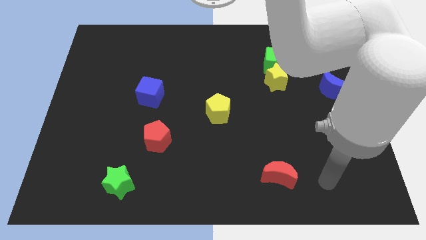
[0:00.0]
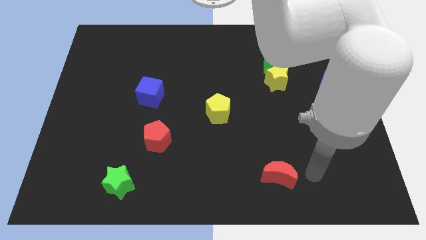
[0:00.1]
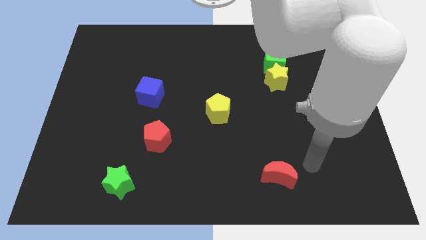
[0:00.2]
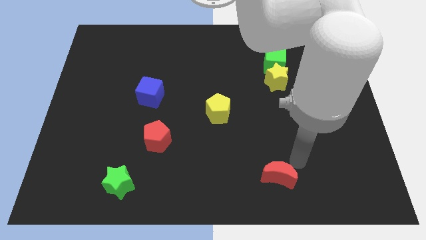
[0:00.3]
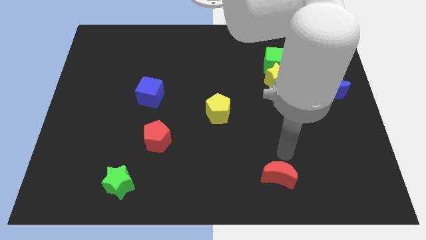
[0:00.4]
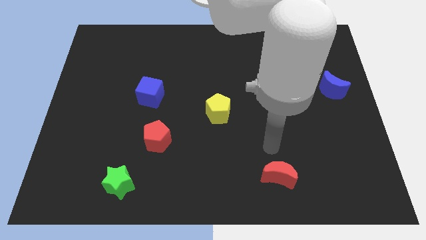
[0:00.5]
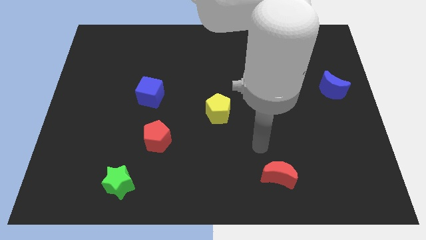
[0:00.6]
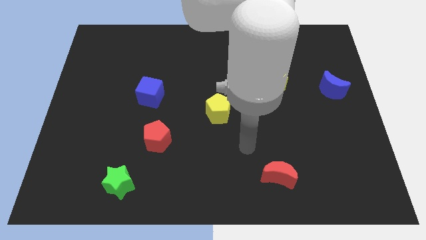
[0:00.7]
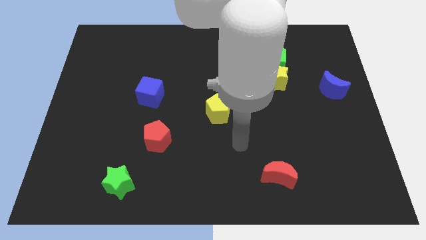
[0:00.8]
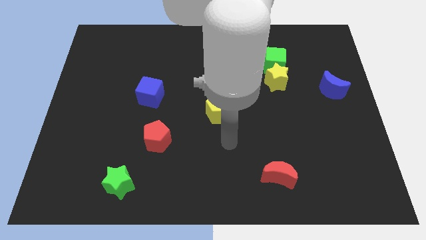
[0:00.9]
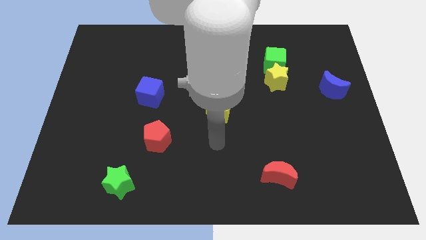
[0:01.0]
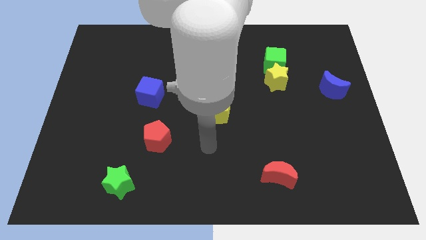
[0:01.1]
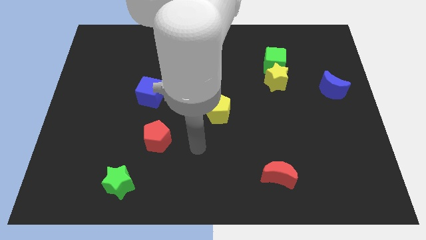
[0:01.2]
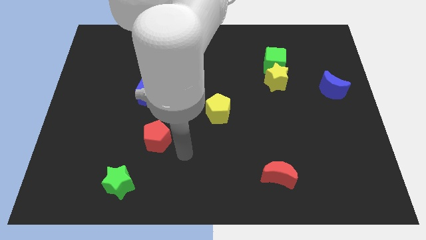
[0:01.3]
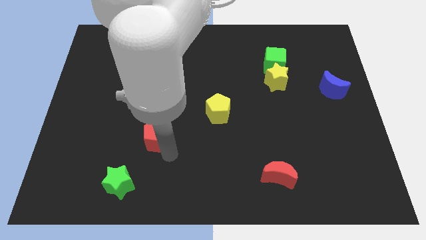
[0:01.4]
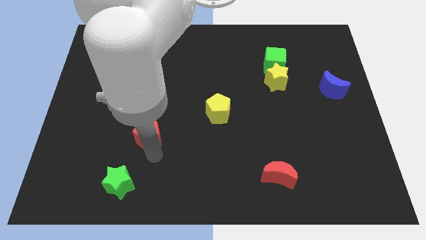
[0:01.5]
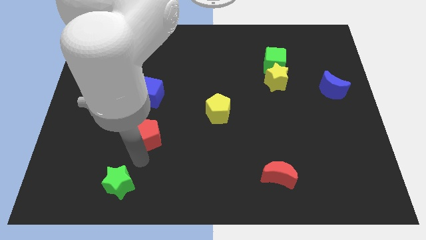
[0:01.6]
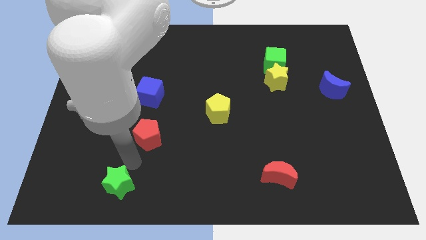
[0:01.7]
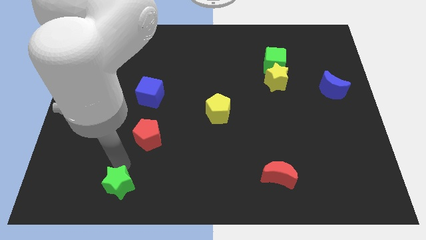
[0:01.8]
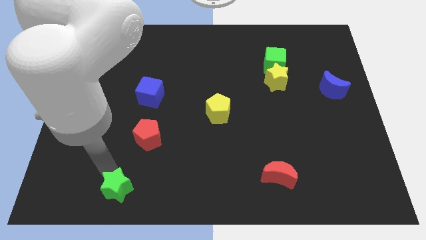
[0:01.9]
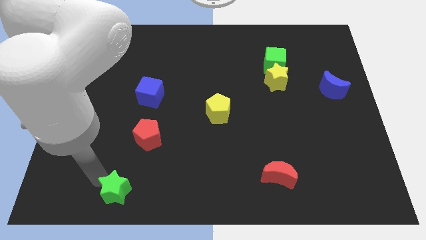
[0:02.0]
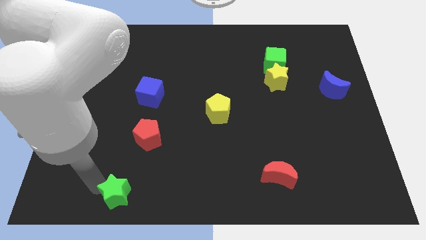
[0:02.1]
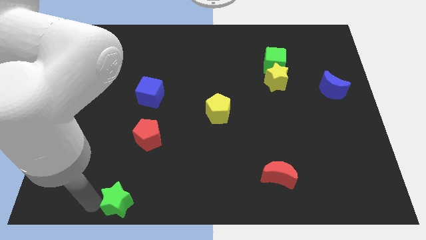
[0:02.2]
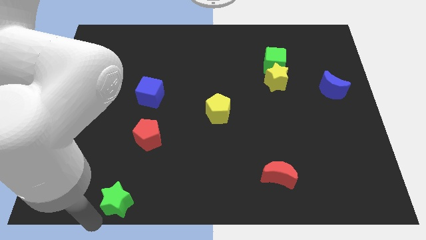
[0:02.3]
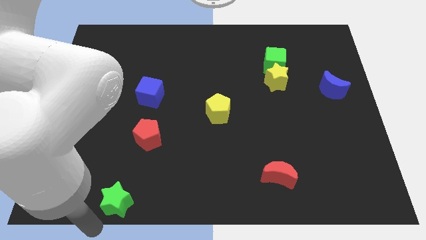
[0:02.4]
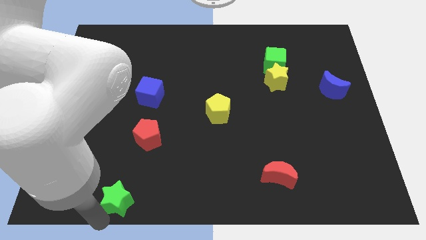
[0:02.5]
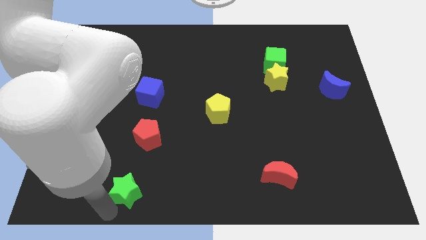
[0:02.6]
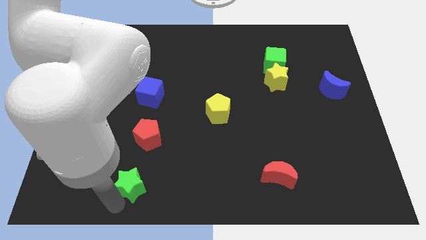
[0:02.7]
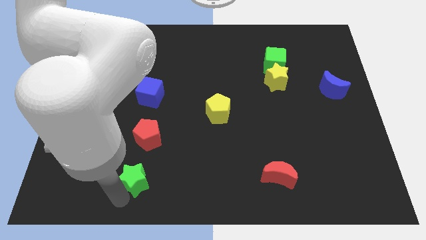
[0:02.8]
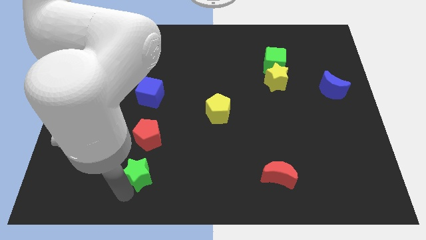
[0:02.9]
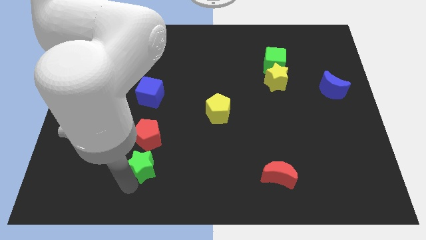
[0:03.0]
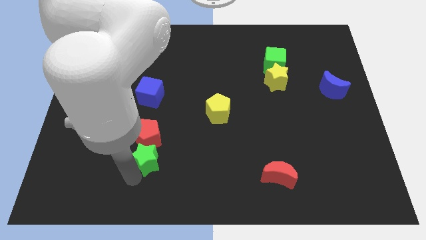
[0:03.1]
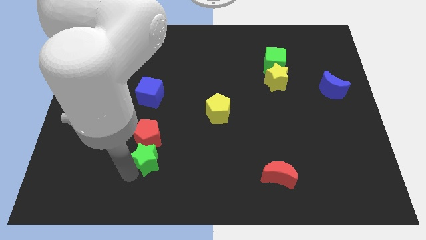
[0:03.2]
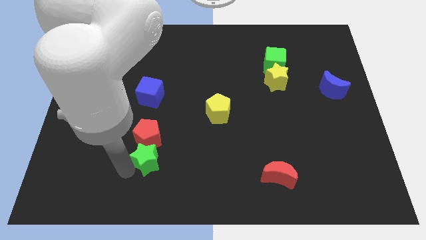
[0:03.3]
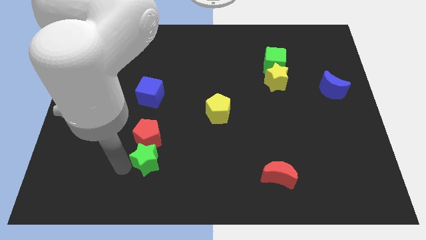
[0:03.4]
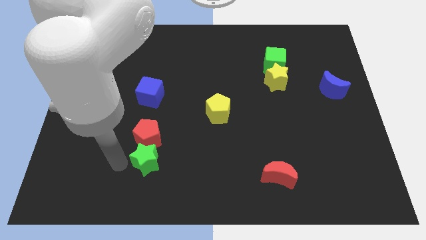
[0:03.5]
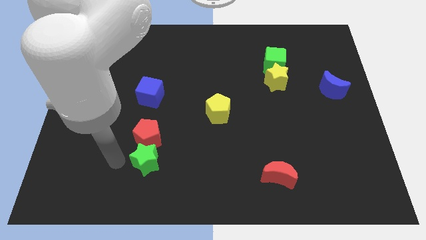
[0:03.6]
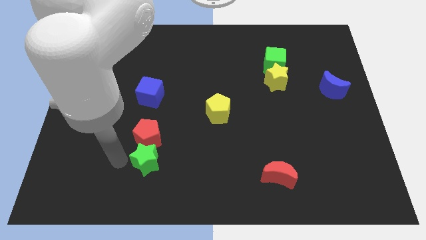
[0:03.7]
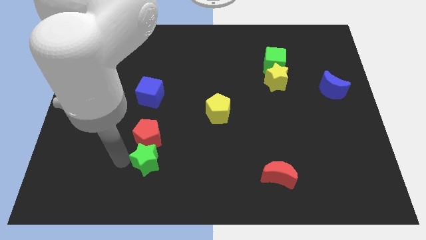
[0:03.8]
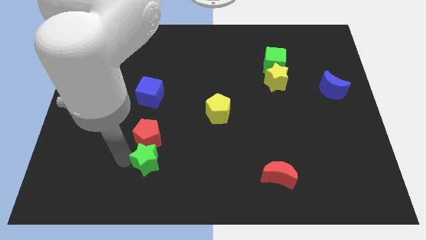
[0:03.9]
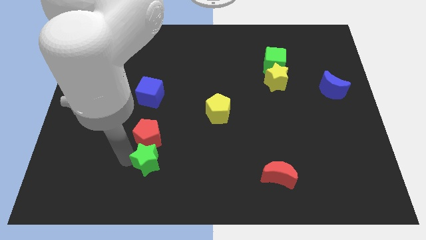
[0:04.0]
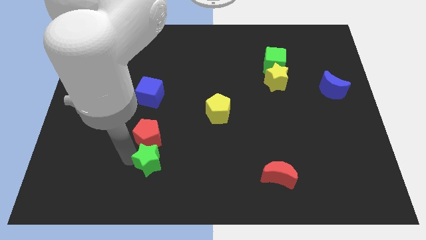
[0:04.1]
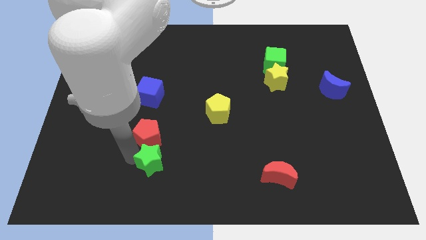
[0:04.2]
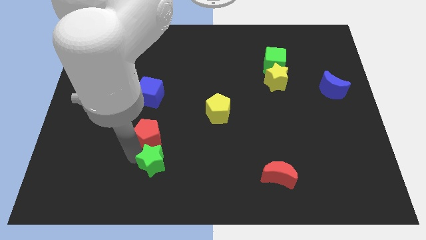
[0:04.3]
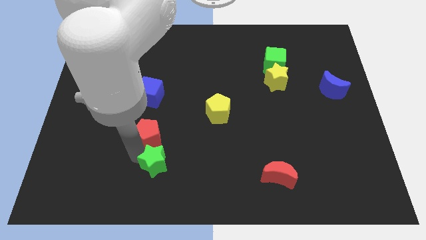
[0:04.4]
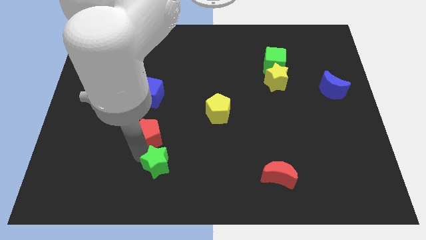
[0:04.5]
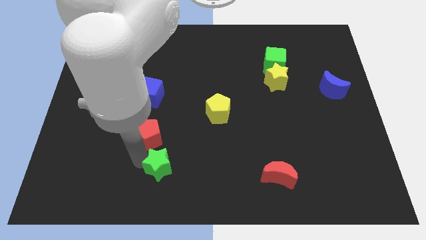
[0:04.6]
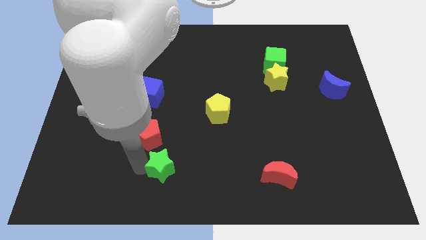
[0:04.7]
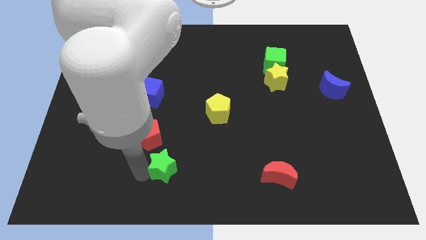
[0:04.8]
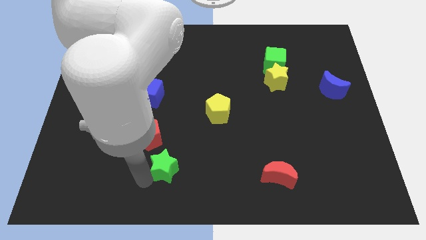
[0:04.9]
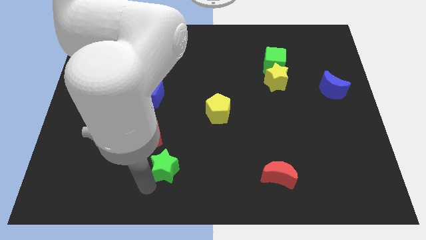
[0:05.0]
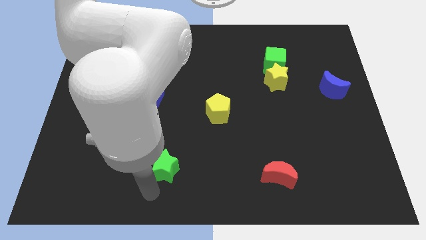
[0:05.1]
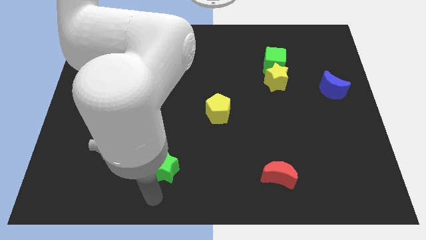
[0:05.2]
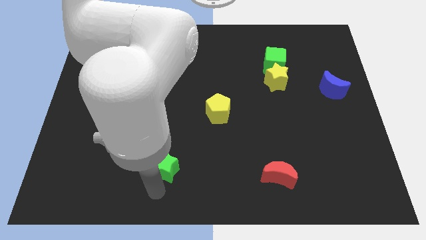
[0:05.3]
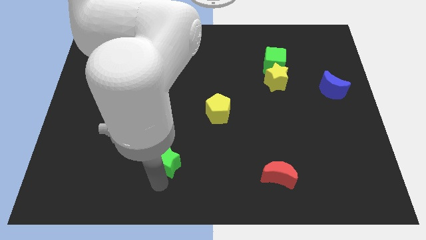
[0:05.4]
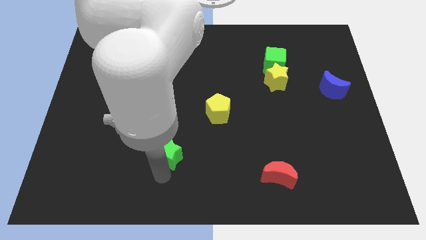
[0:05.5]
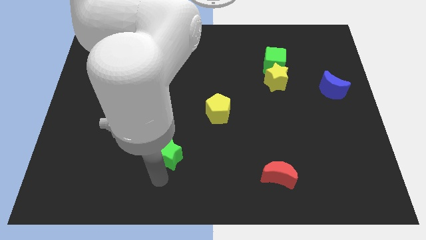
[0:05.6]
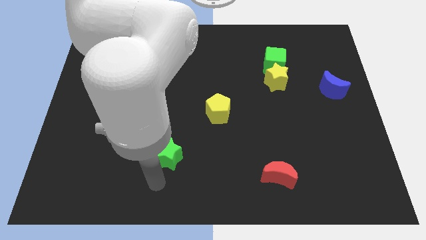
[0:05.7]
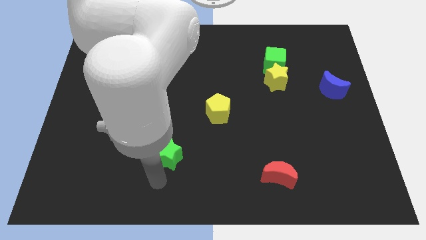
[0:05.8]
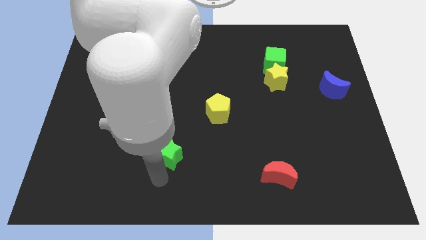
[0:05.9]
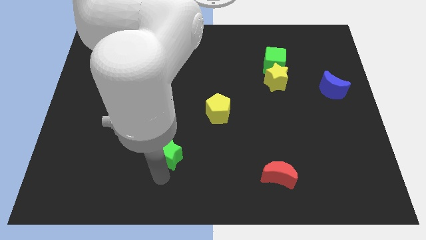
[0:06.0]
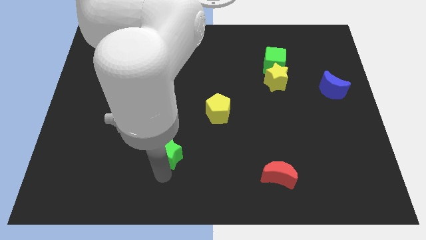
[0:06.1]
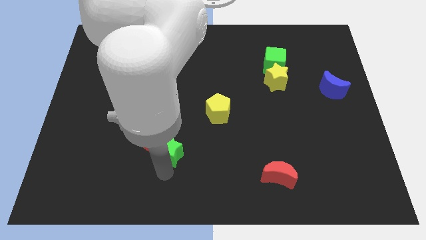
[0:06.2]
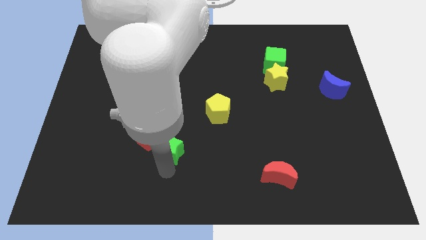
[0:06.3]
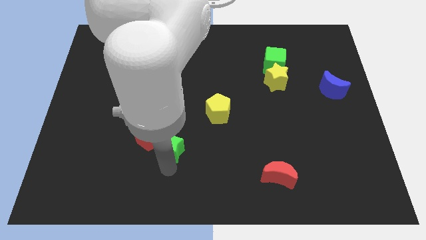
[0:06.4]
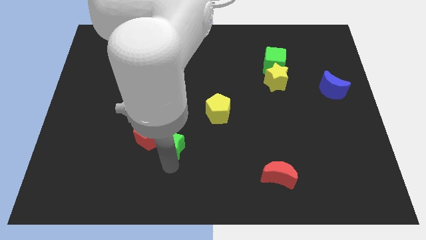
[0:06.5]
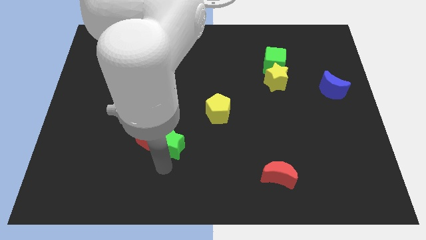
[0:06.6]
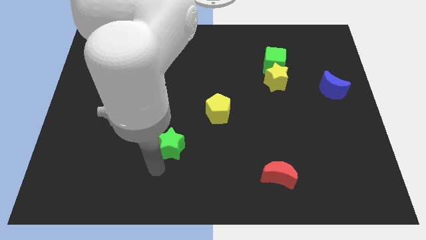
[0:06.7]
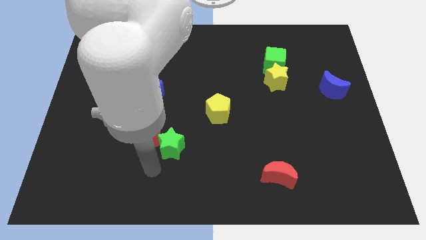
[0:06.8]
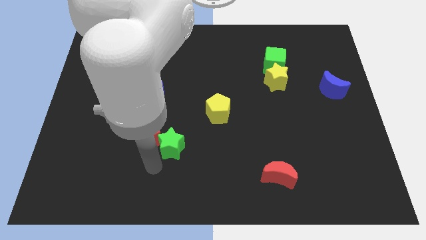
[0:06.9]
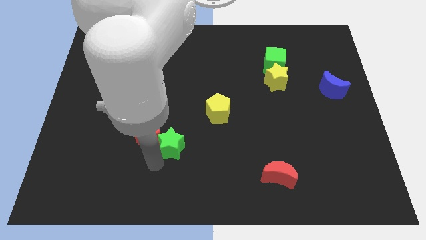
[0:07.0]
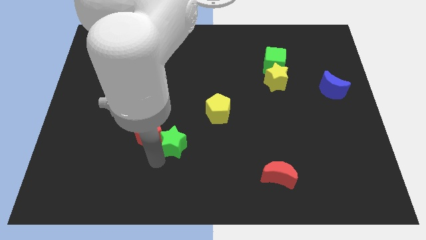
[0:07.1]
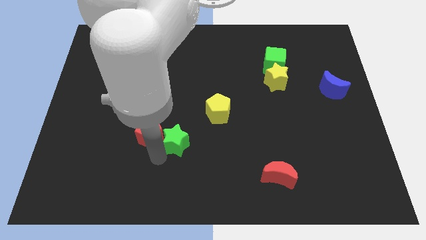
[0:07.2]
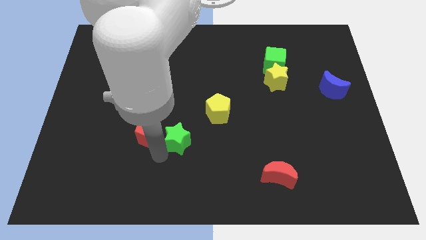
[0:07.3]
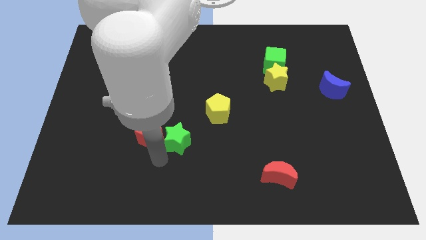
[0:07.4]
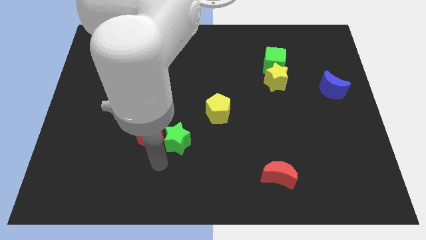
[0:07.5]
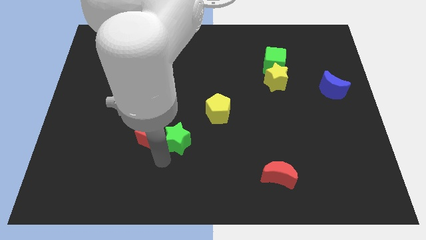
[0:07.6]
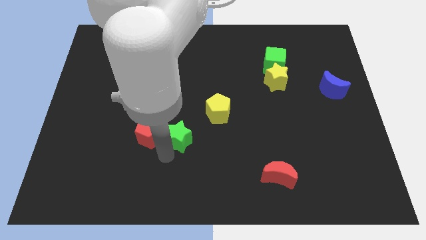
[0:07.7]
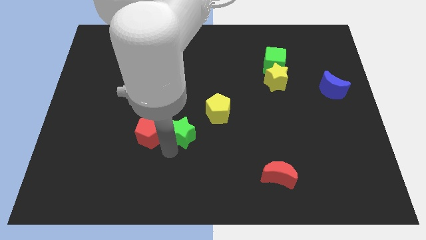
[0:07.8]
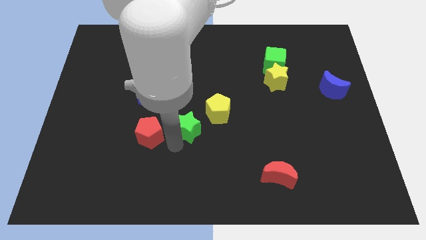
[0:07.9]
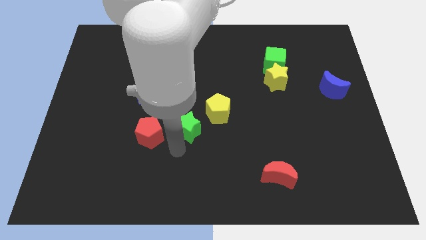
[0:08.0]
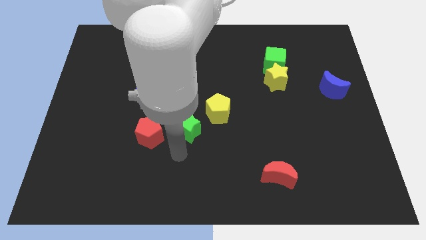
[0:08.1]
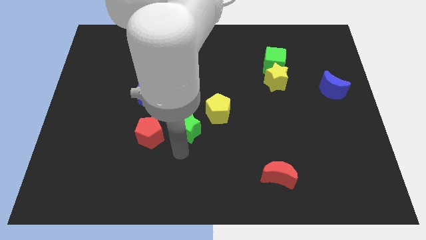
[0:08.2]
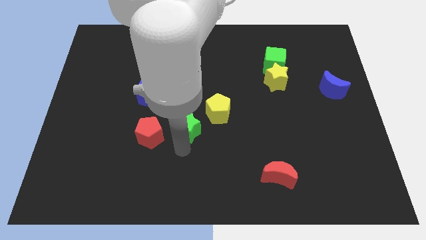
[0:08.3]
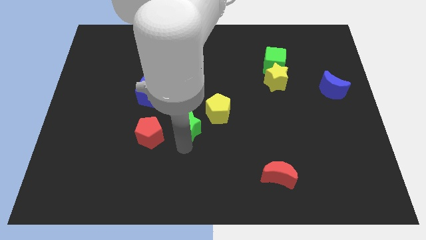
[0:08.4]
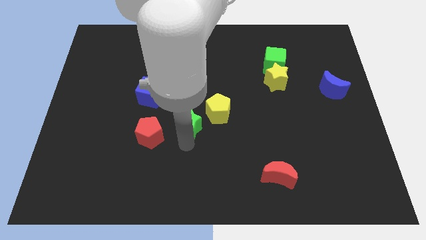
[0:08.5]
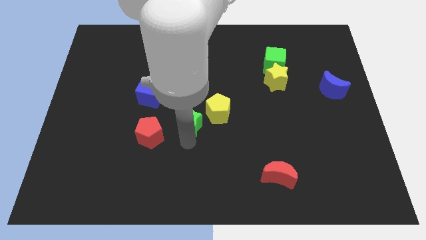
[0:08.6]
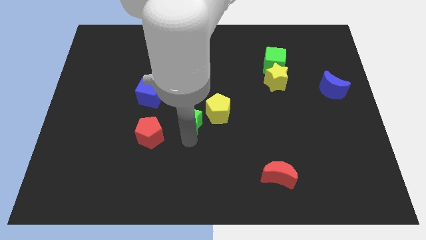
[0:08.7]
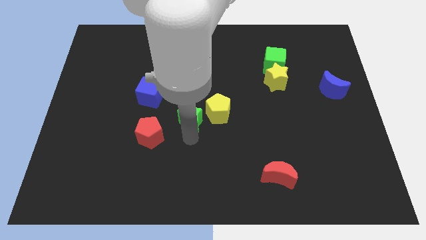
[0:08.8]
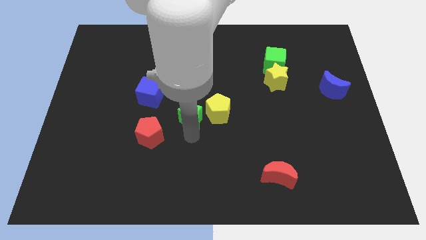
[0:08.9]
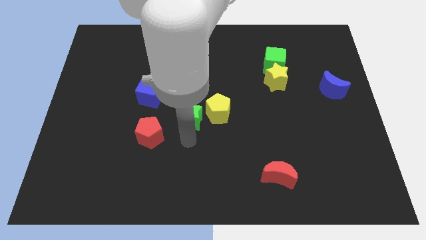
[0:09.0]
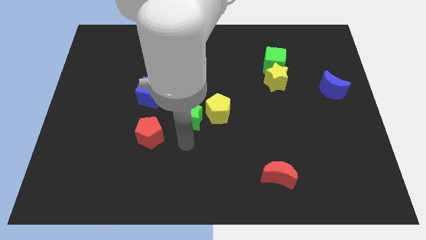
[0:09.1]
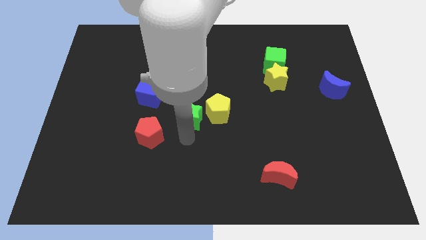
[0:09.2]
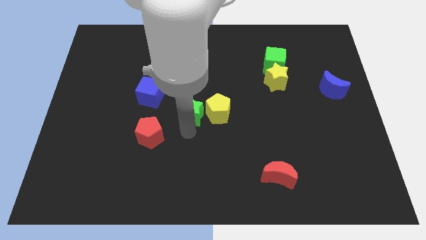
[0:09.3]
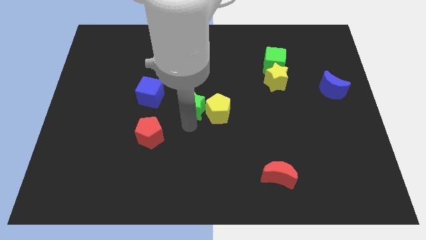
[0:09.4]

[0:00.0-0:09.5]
put the green star to the right of the blue cube
